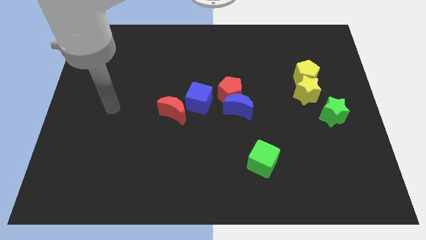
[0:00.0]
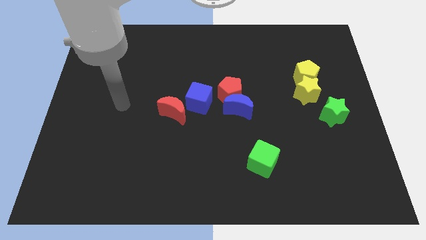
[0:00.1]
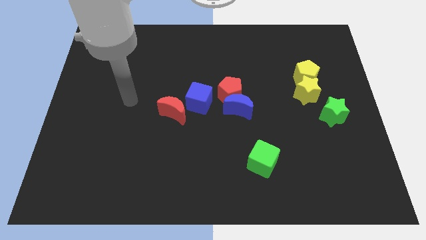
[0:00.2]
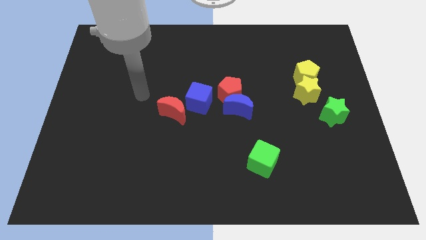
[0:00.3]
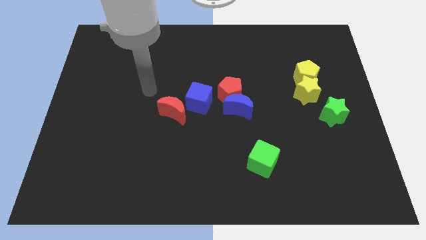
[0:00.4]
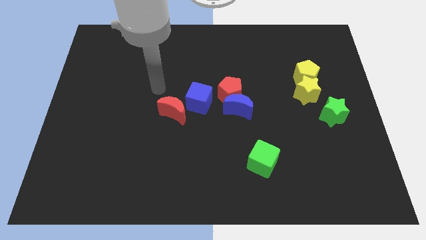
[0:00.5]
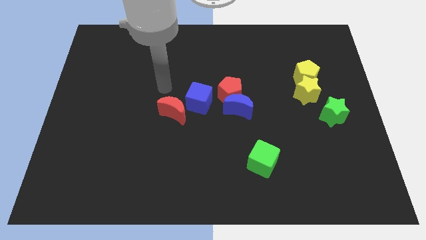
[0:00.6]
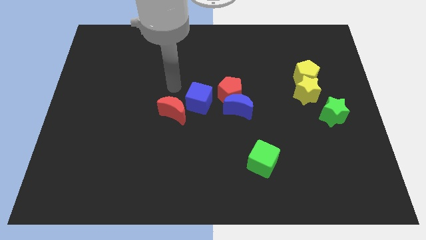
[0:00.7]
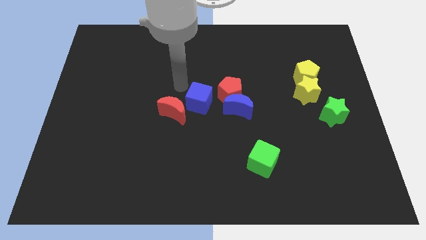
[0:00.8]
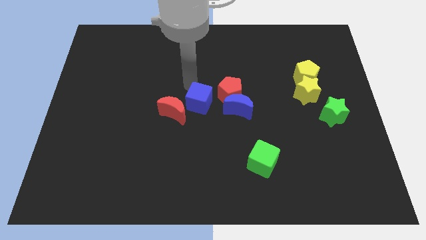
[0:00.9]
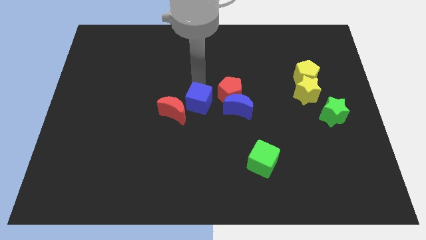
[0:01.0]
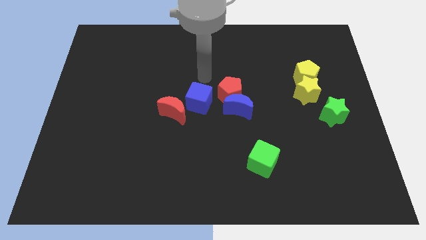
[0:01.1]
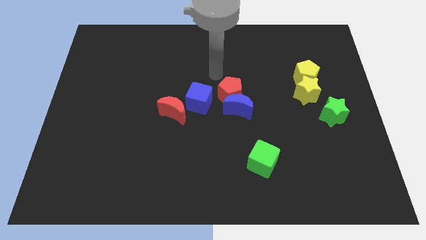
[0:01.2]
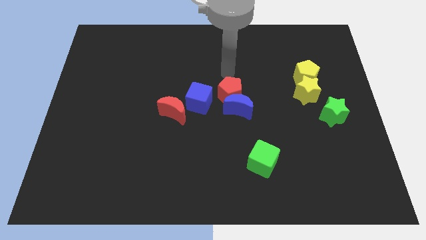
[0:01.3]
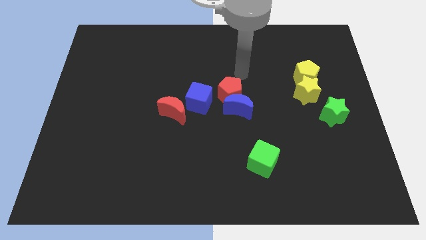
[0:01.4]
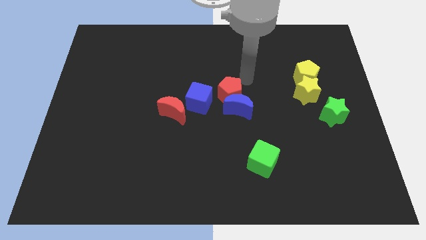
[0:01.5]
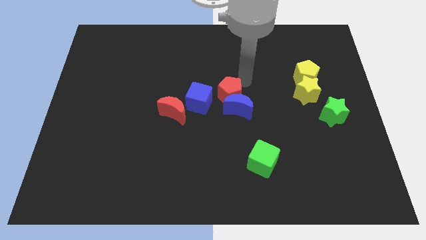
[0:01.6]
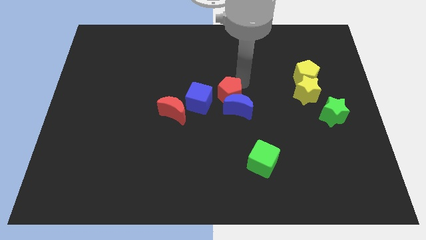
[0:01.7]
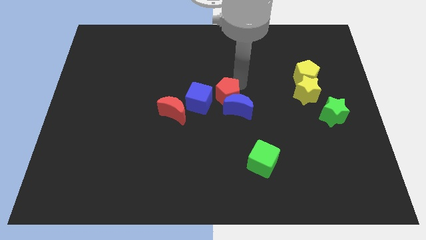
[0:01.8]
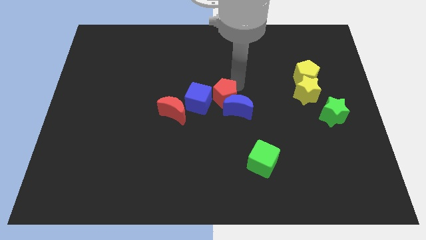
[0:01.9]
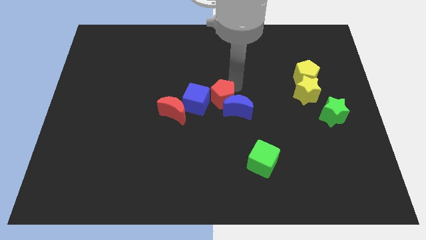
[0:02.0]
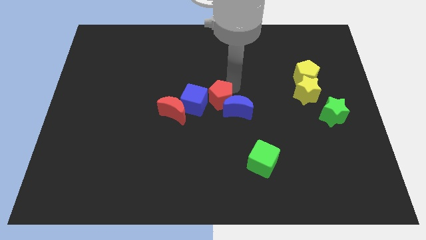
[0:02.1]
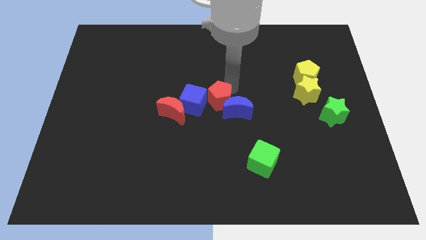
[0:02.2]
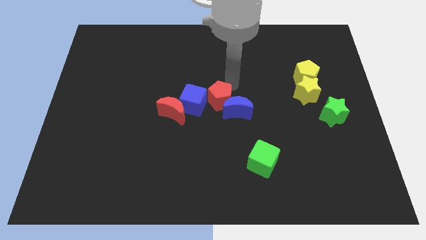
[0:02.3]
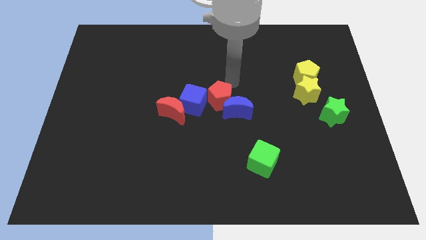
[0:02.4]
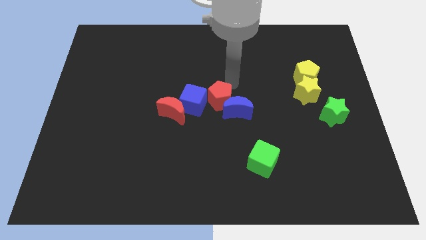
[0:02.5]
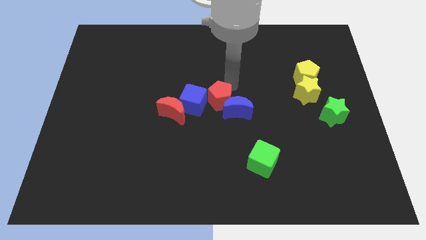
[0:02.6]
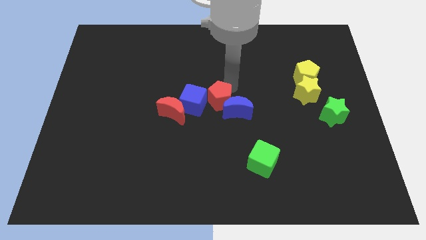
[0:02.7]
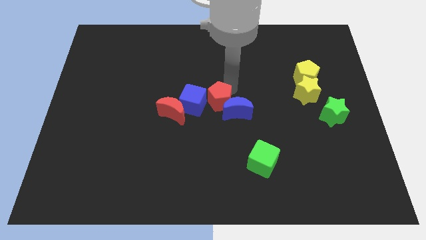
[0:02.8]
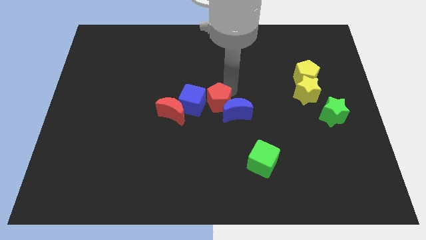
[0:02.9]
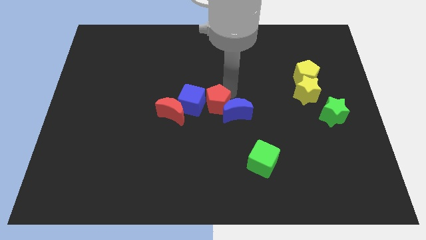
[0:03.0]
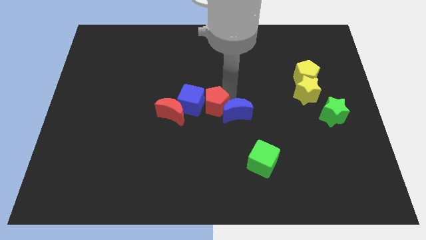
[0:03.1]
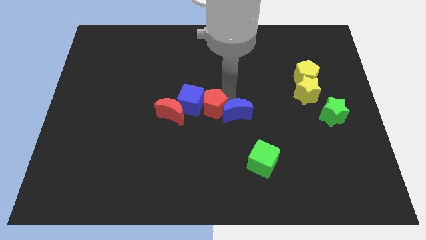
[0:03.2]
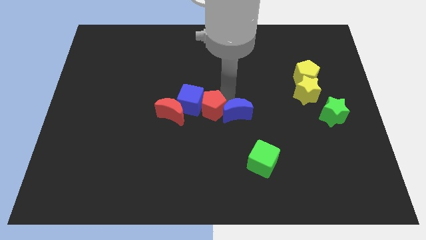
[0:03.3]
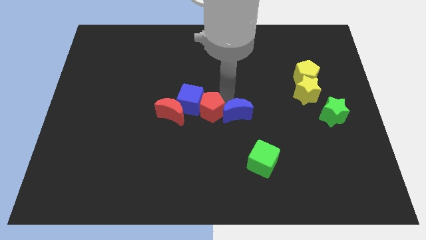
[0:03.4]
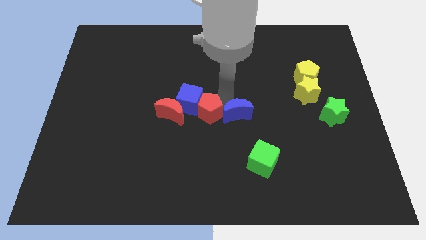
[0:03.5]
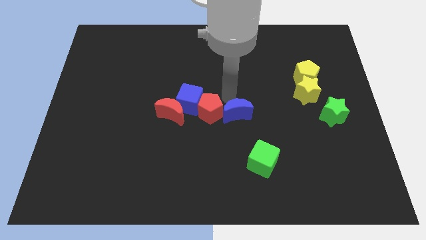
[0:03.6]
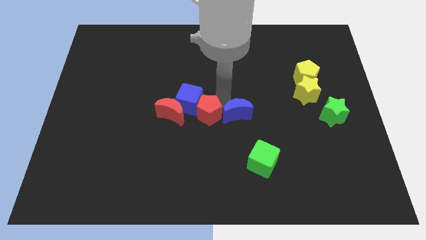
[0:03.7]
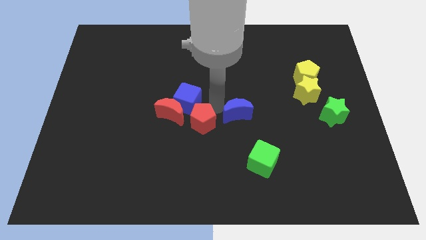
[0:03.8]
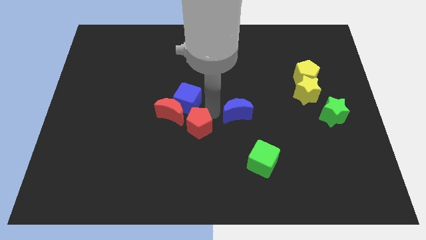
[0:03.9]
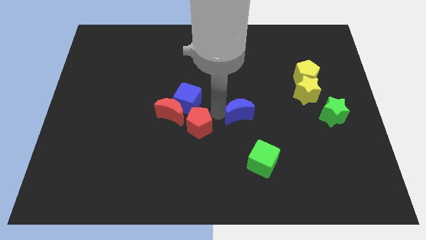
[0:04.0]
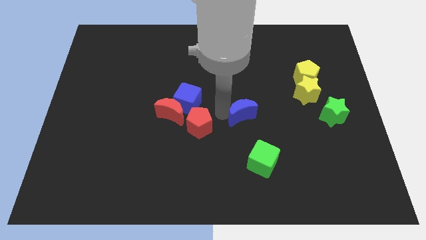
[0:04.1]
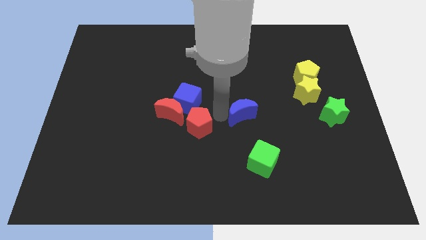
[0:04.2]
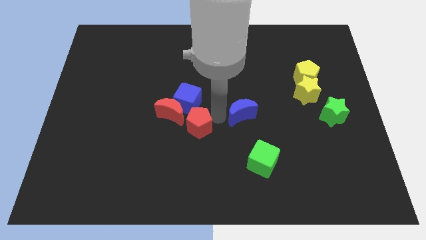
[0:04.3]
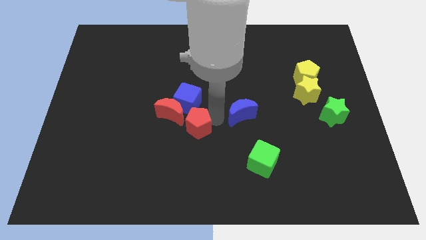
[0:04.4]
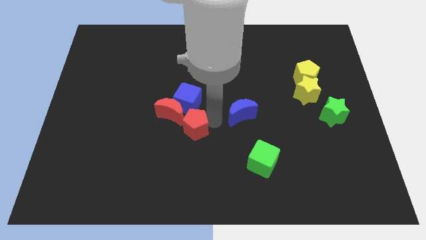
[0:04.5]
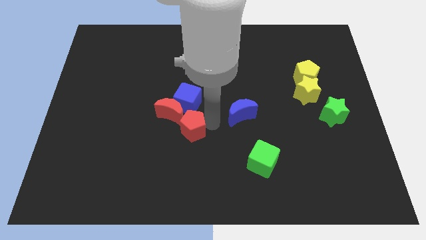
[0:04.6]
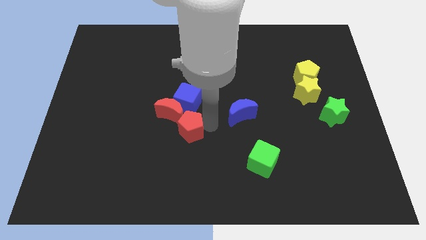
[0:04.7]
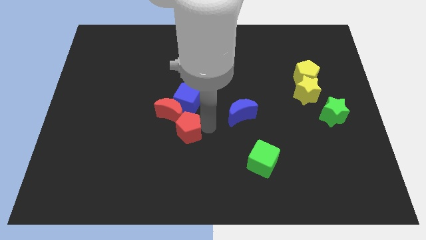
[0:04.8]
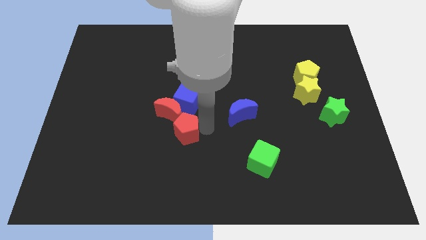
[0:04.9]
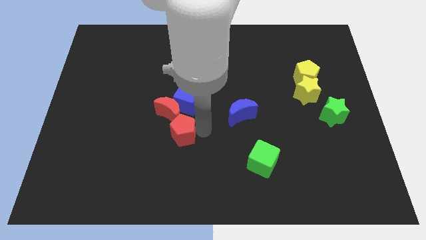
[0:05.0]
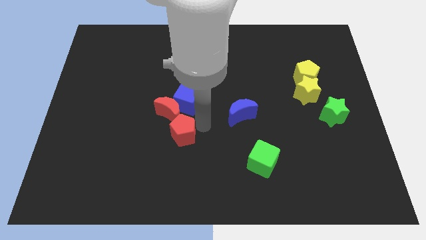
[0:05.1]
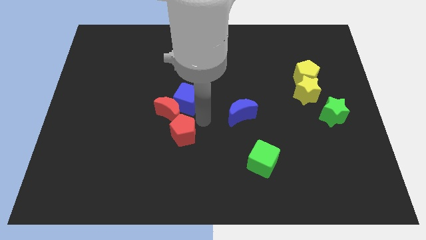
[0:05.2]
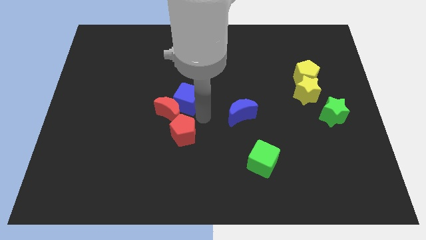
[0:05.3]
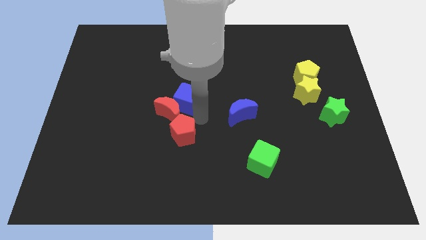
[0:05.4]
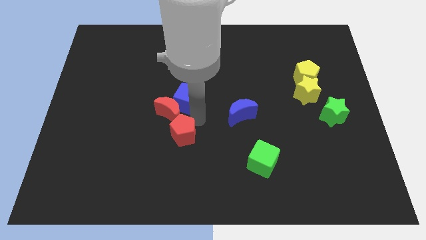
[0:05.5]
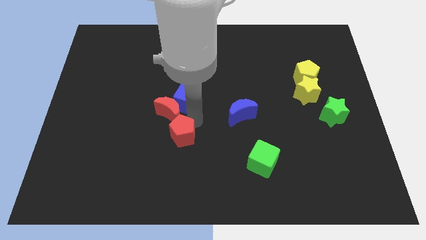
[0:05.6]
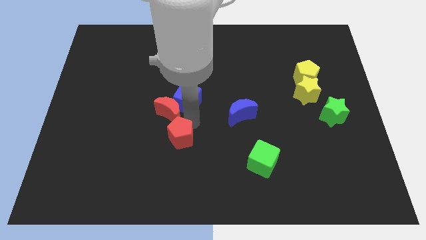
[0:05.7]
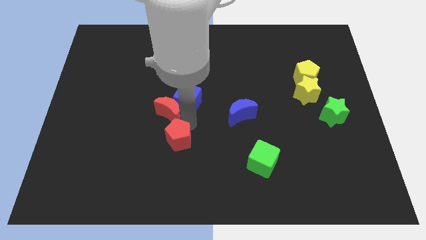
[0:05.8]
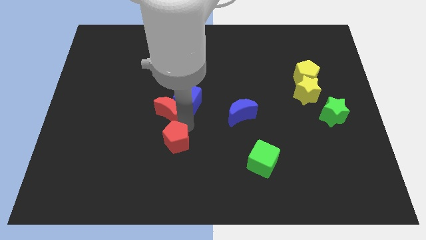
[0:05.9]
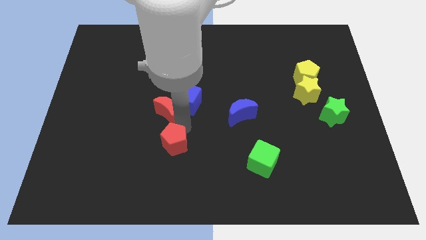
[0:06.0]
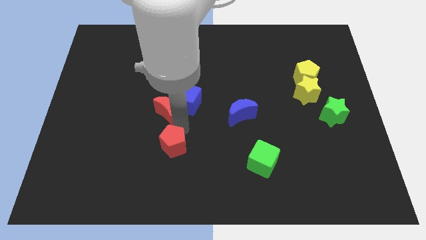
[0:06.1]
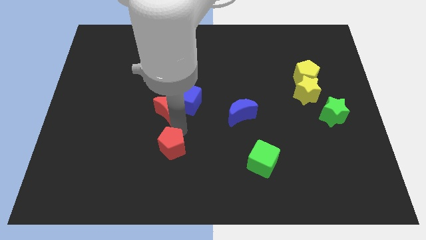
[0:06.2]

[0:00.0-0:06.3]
push the red pentagon diagonally downwards and left

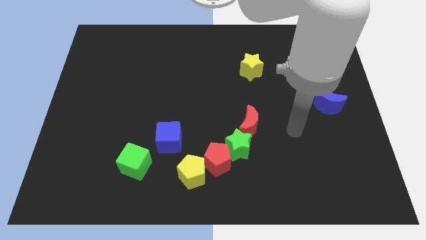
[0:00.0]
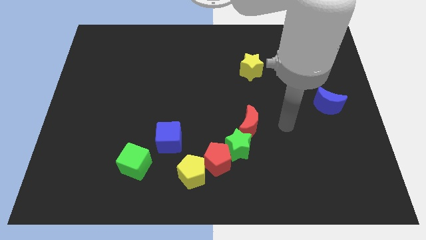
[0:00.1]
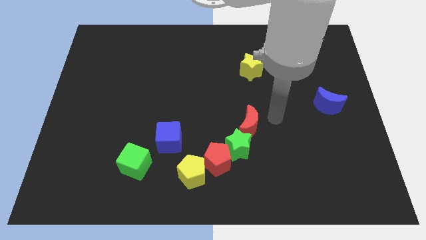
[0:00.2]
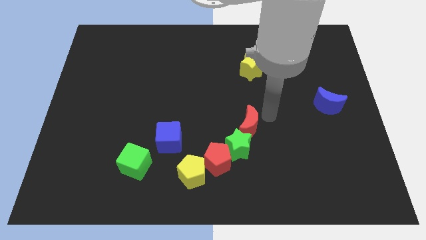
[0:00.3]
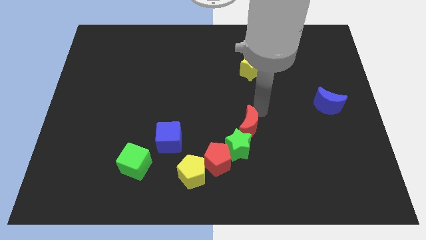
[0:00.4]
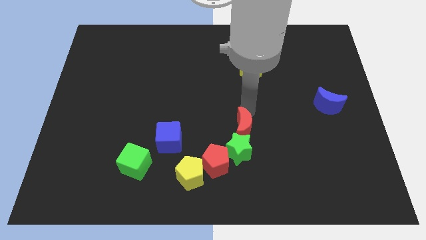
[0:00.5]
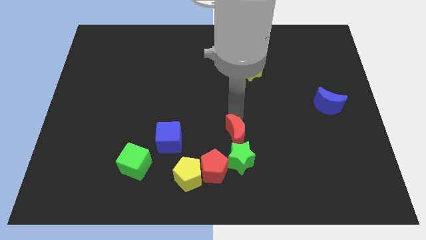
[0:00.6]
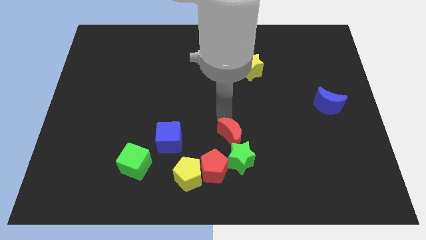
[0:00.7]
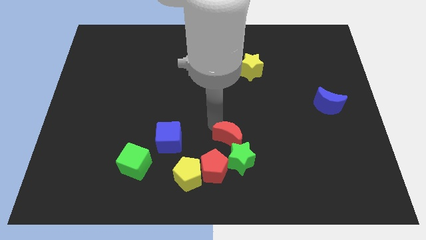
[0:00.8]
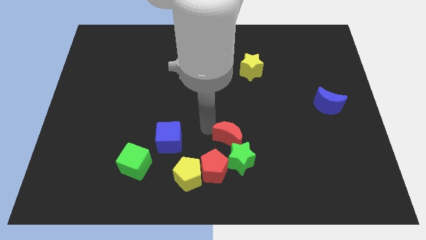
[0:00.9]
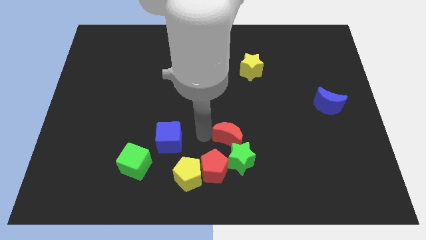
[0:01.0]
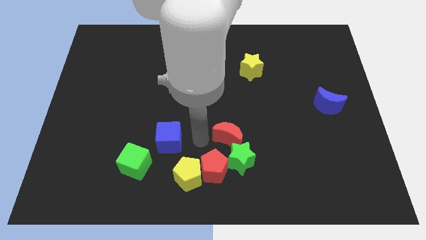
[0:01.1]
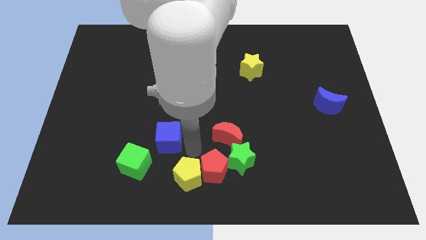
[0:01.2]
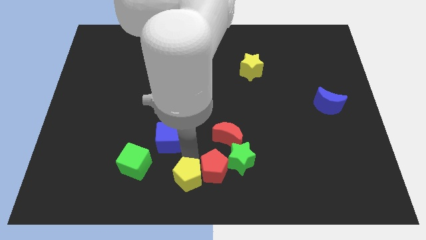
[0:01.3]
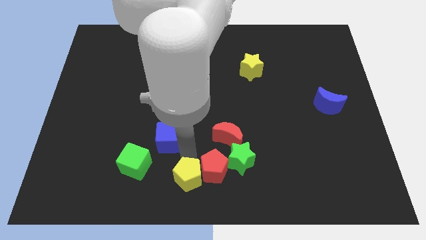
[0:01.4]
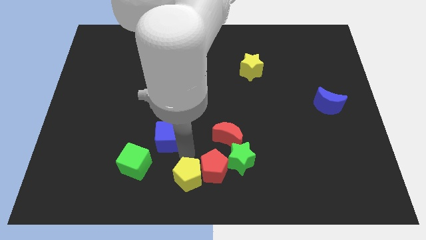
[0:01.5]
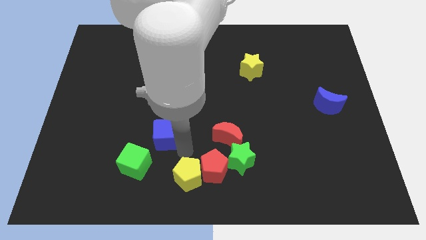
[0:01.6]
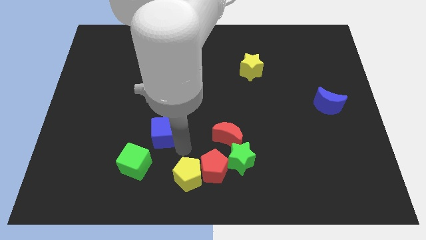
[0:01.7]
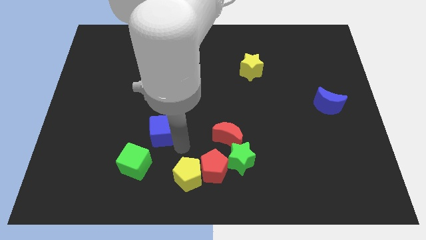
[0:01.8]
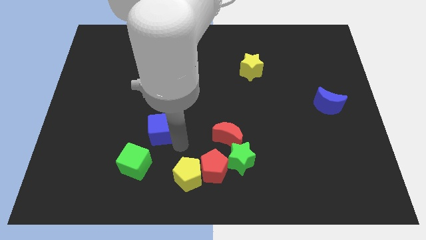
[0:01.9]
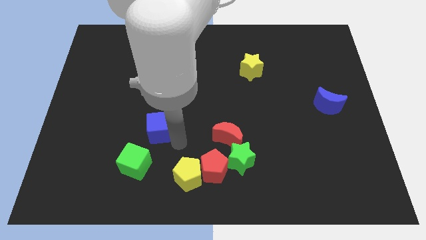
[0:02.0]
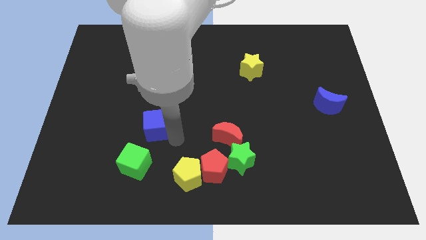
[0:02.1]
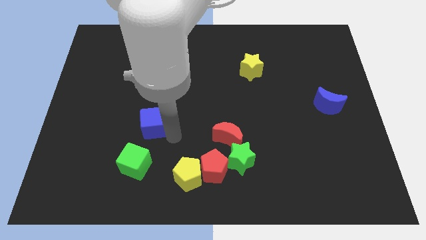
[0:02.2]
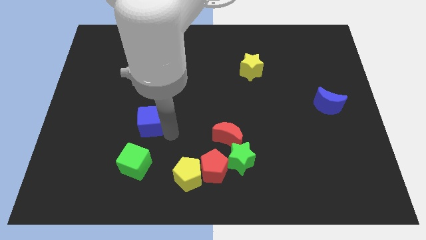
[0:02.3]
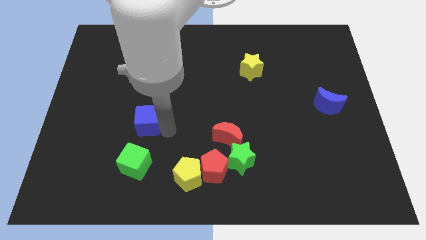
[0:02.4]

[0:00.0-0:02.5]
push the blue cube a little bit diagonally up and to the left
